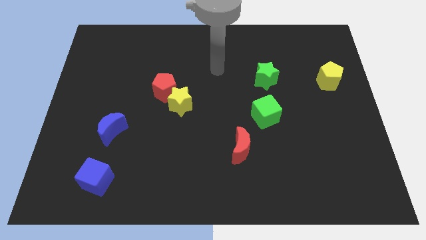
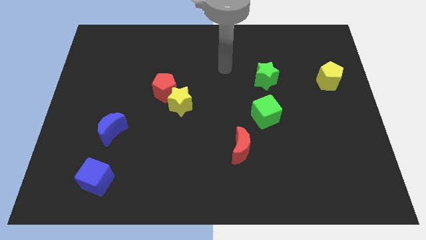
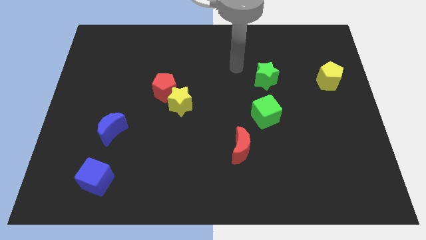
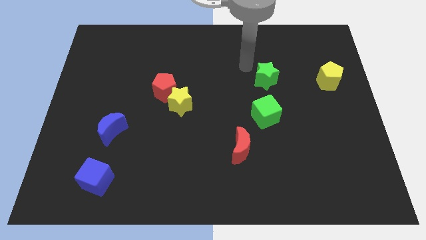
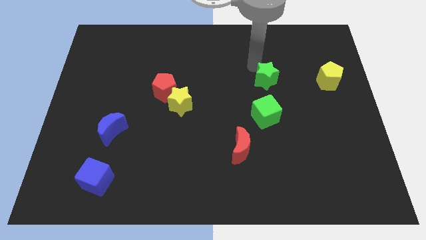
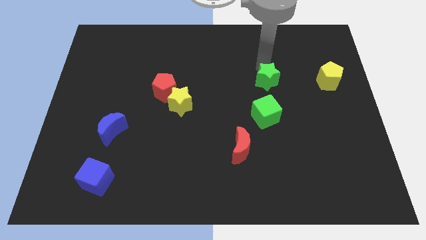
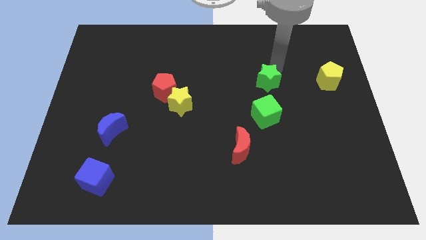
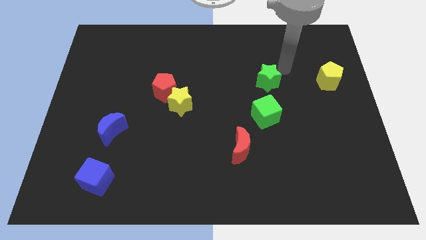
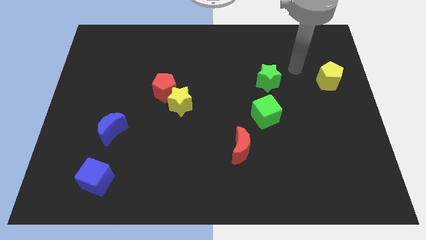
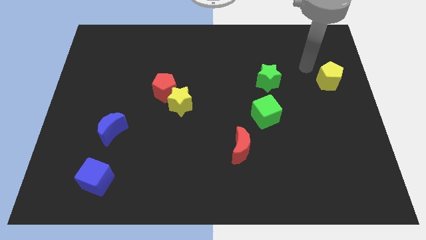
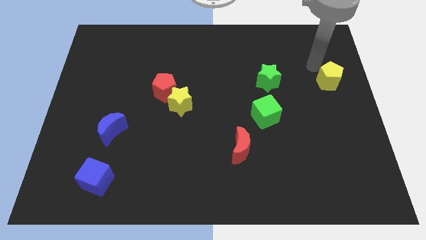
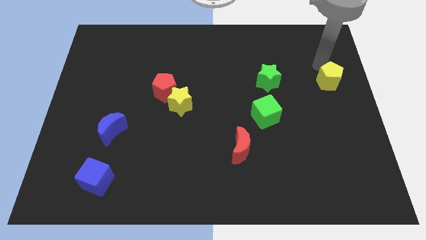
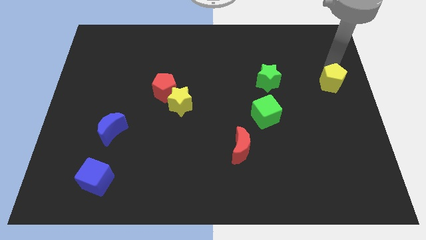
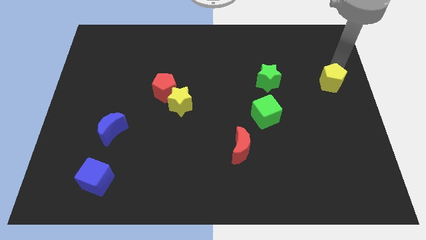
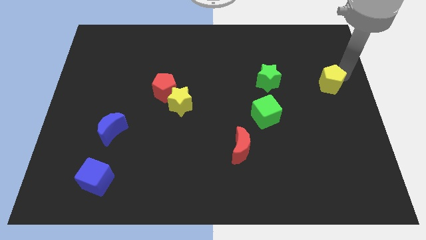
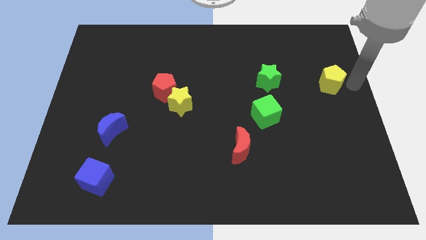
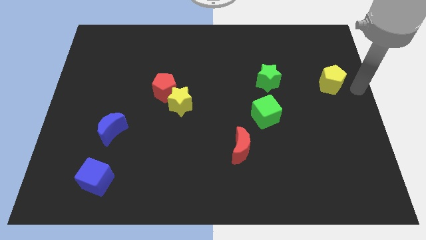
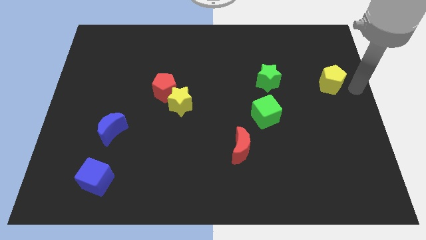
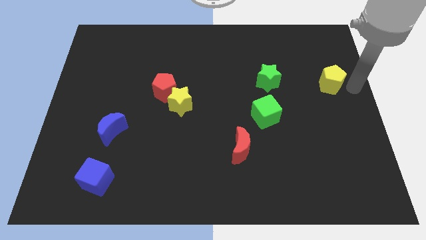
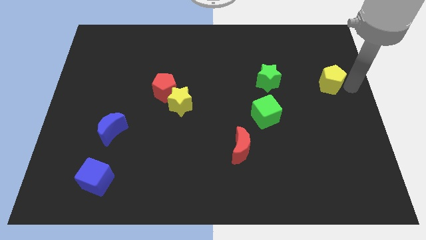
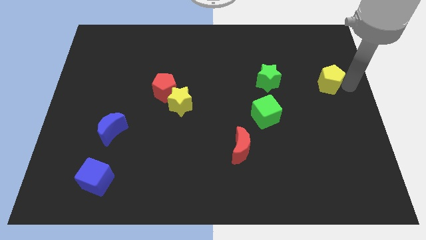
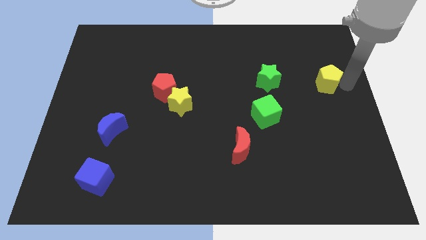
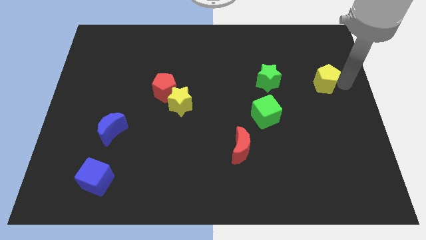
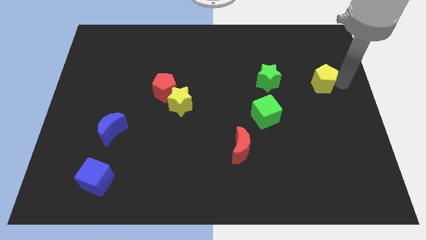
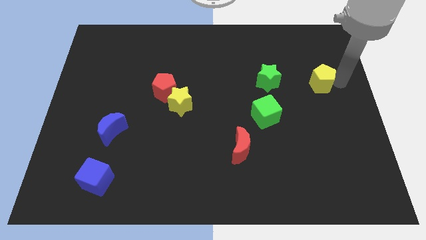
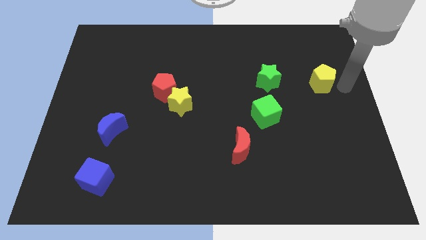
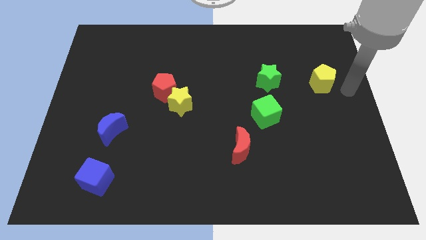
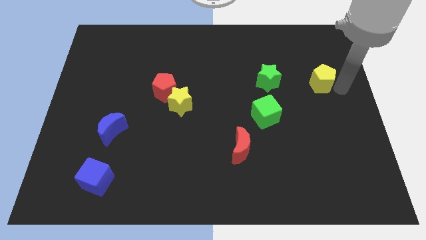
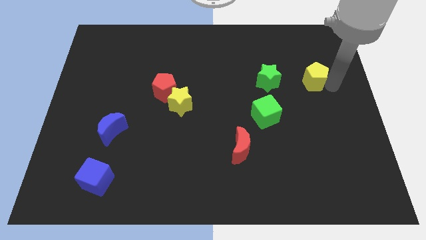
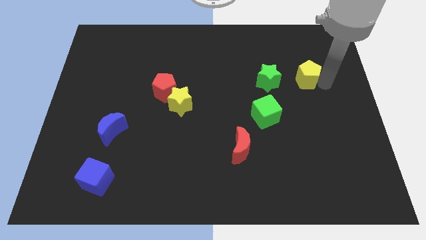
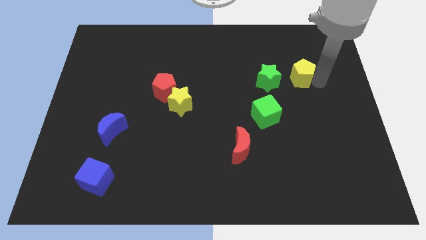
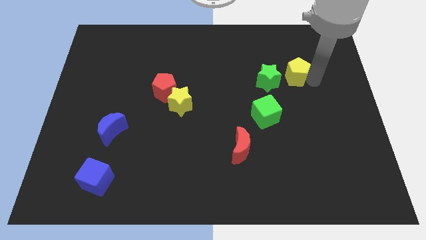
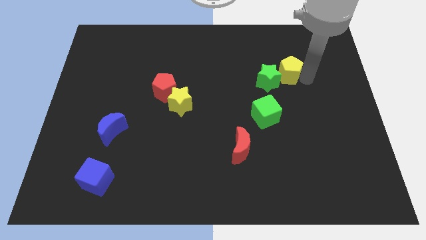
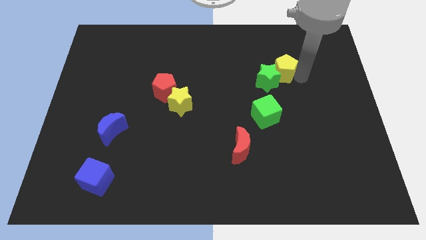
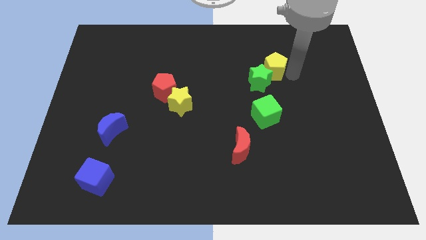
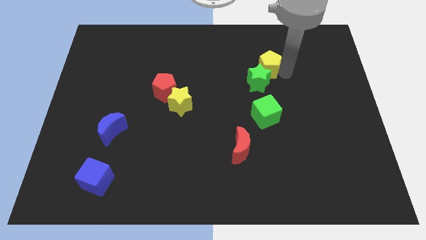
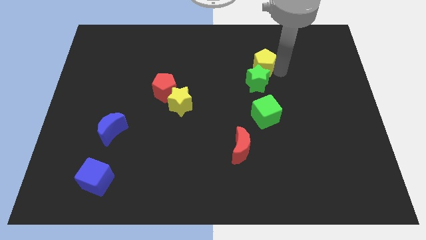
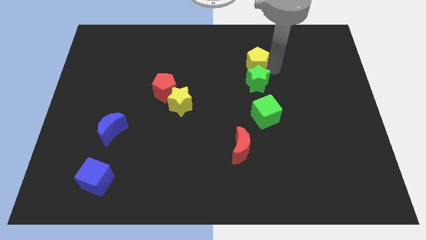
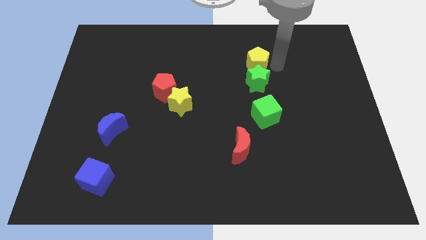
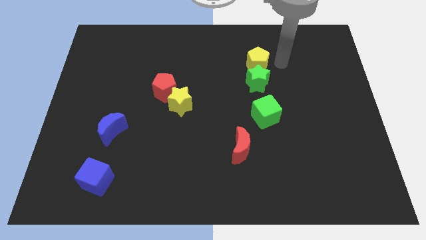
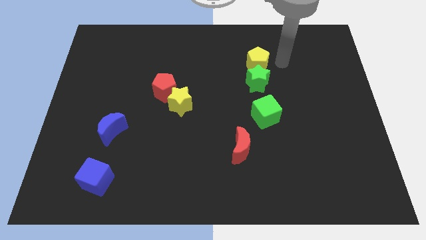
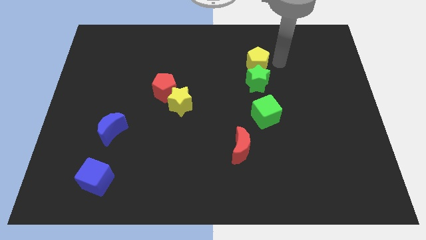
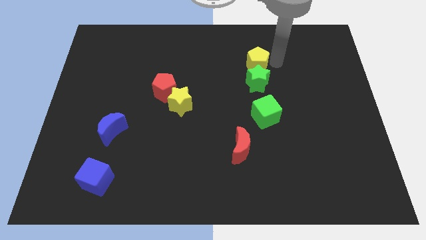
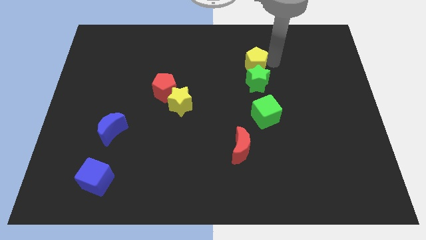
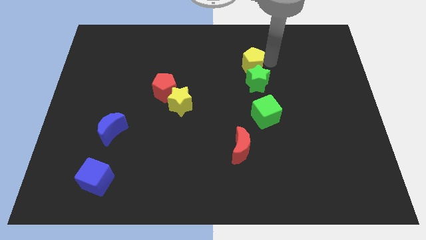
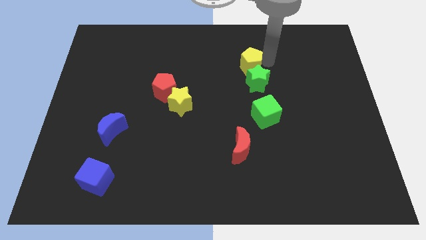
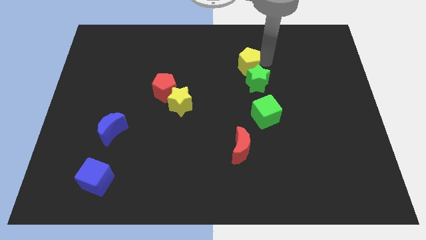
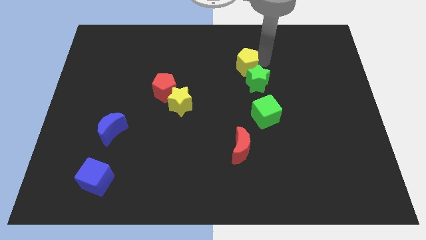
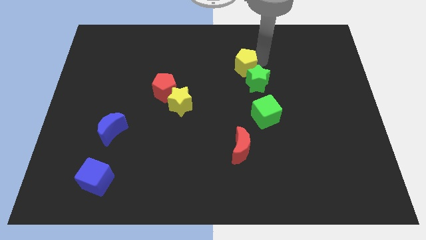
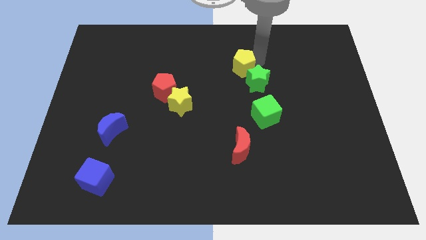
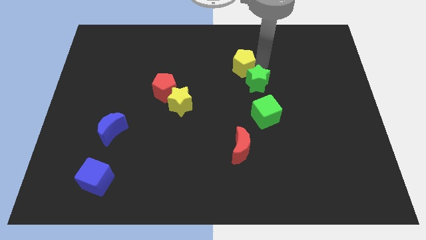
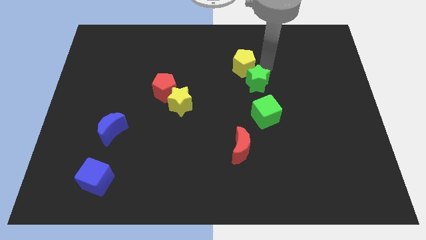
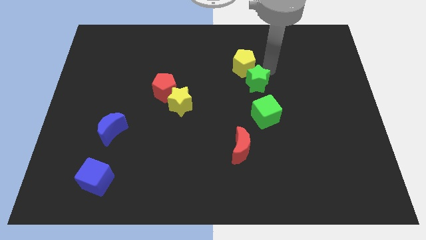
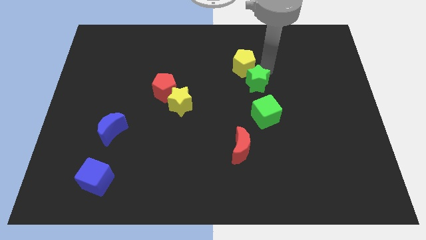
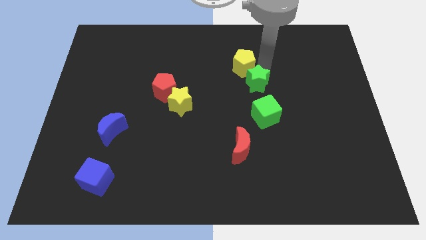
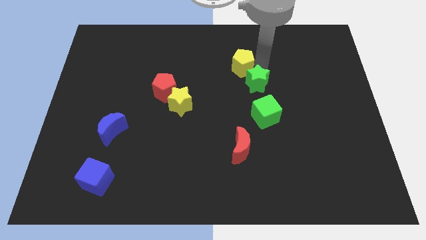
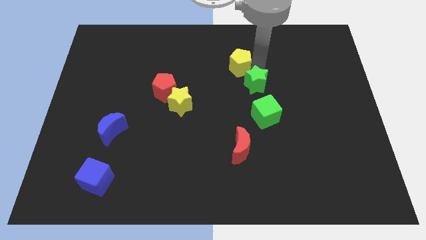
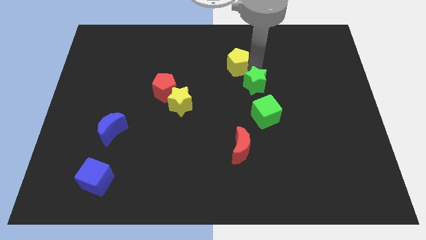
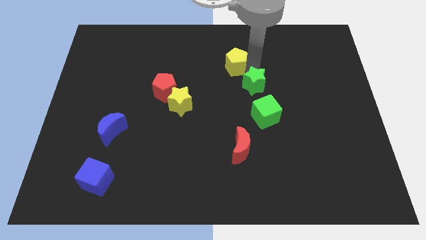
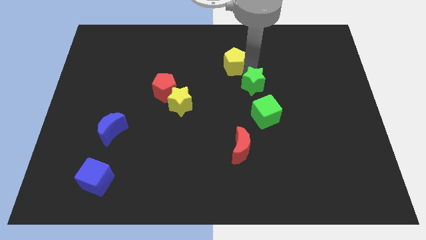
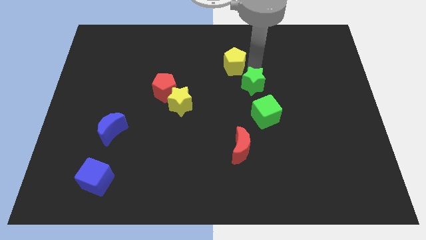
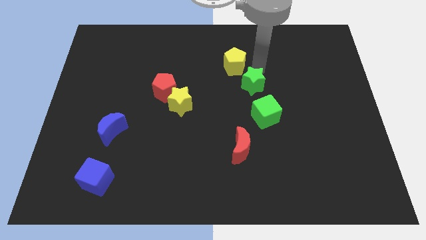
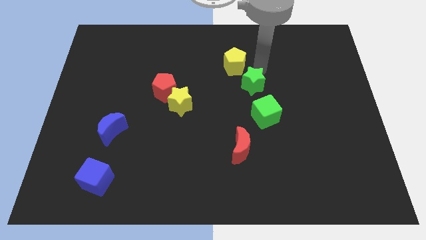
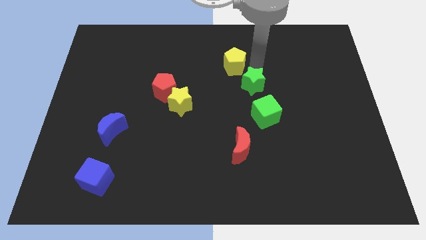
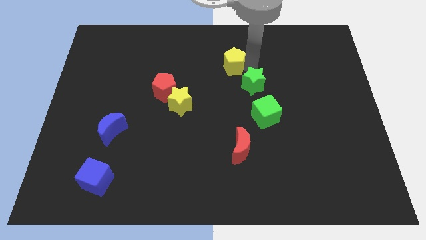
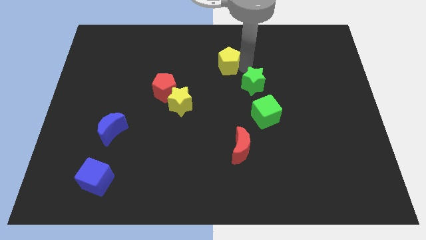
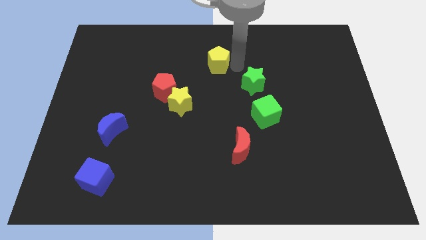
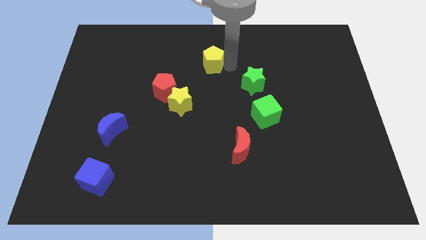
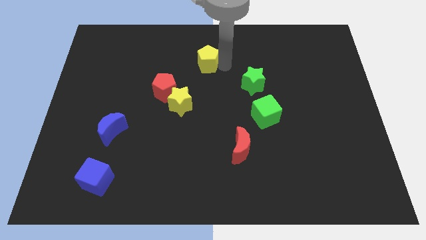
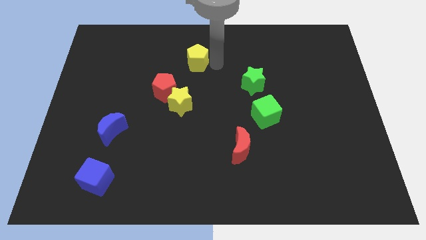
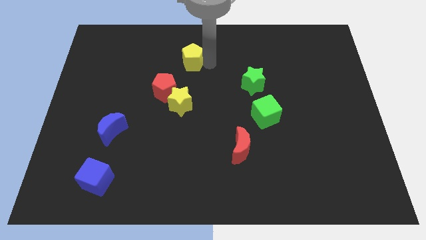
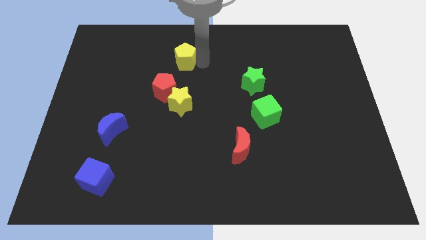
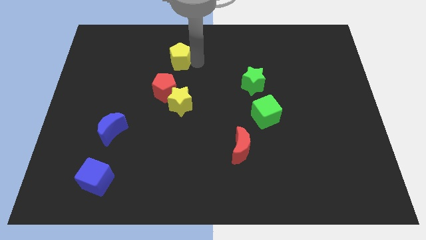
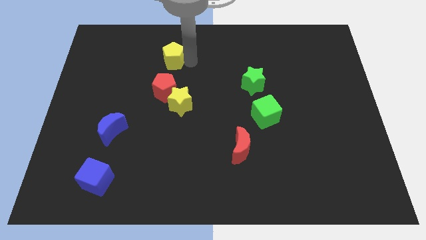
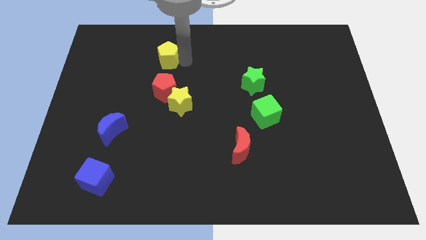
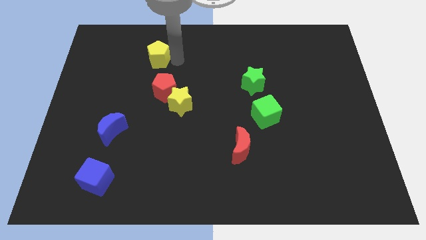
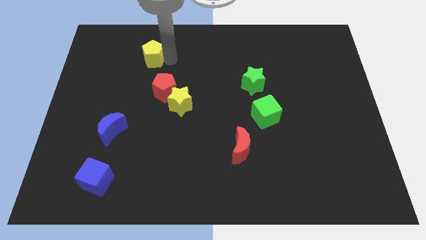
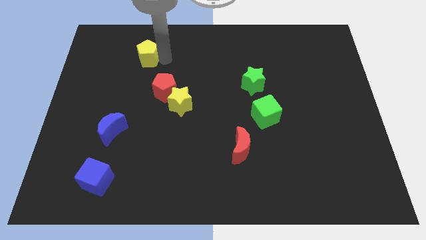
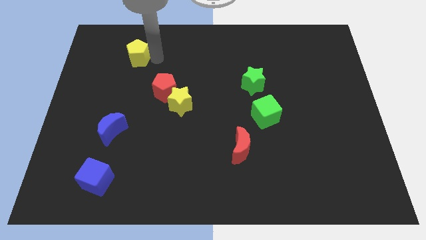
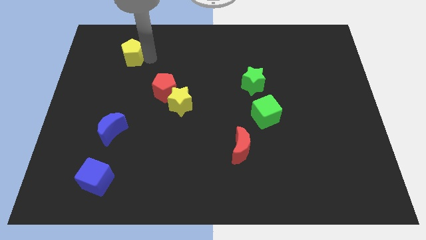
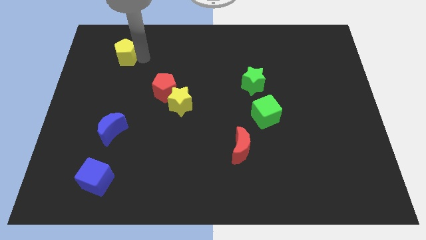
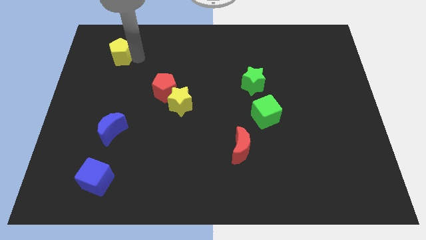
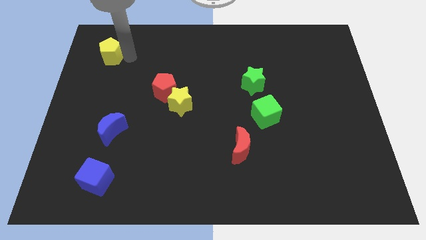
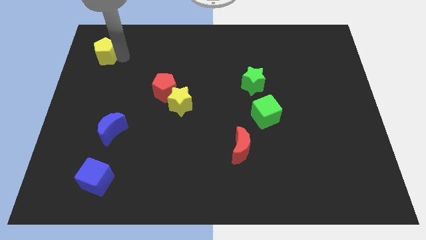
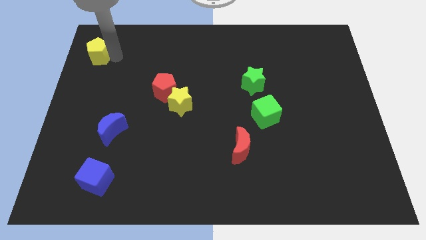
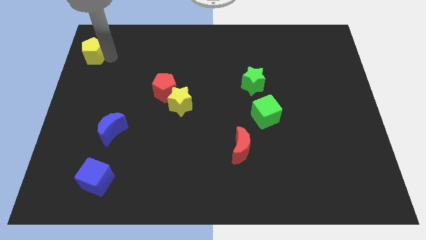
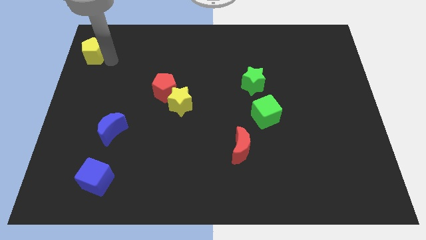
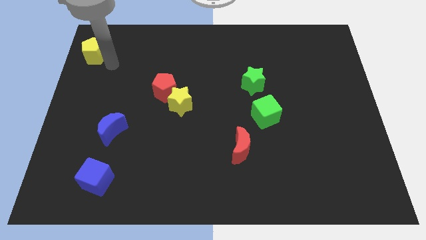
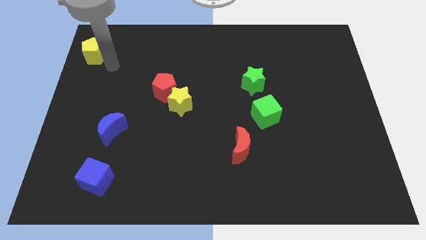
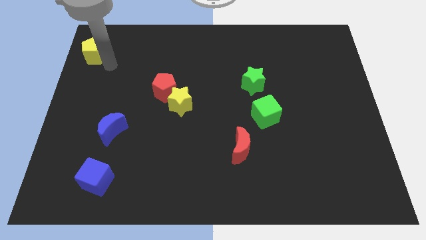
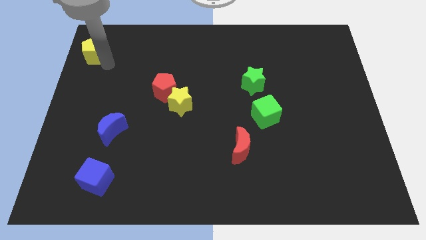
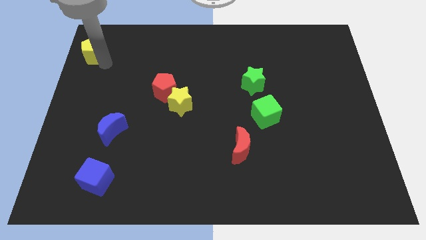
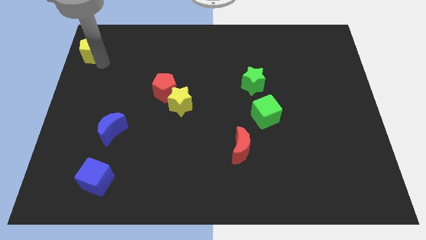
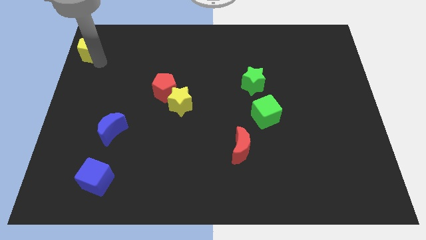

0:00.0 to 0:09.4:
move the yellow pentagon to the top left corner
